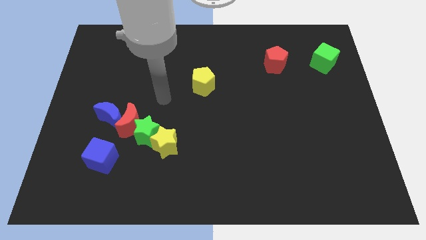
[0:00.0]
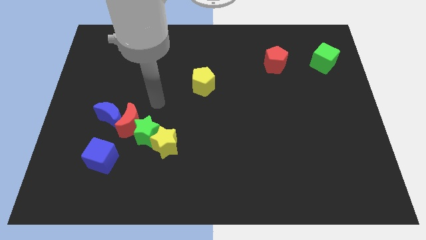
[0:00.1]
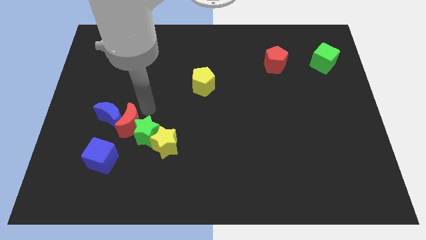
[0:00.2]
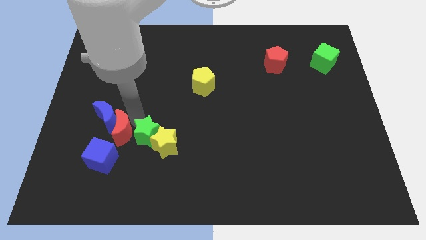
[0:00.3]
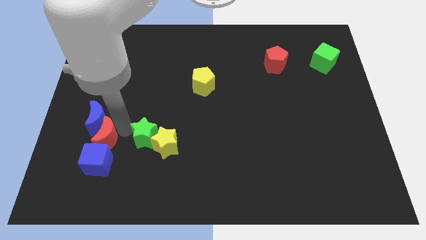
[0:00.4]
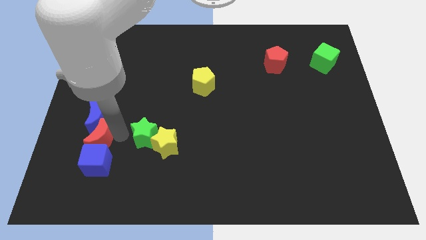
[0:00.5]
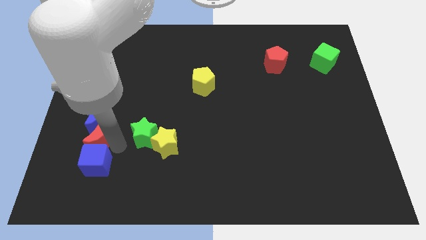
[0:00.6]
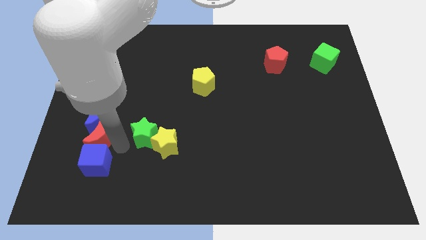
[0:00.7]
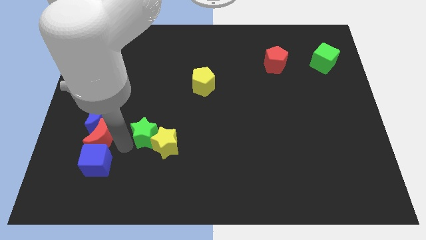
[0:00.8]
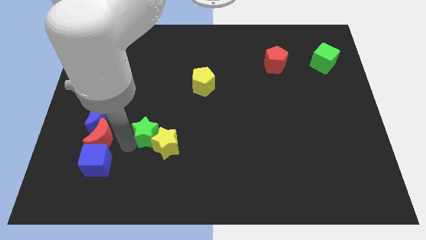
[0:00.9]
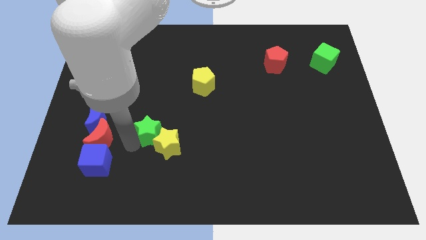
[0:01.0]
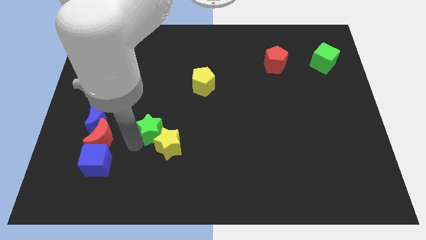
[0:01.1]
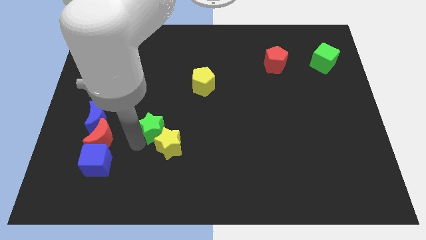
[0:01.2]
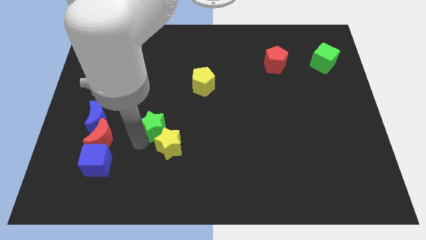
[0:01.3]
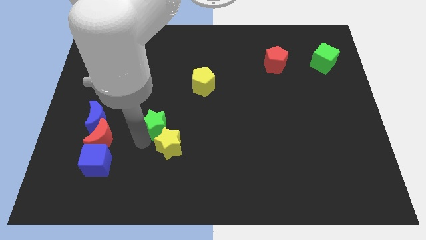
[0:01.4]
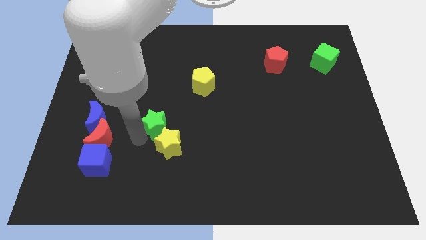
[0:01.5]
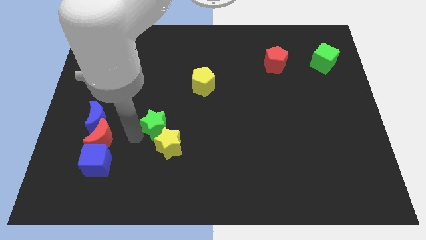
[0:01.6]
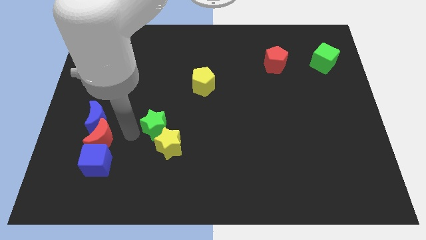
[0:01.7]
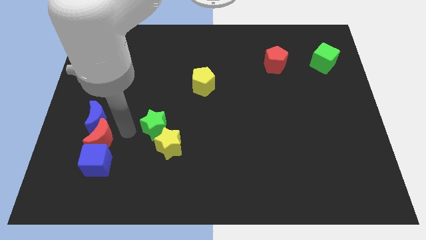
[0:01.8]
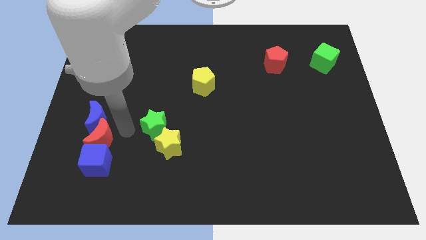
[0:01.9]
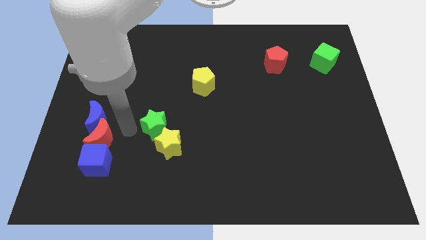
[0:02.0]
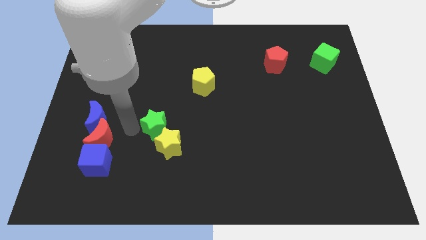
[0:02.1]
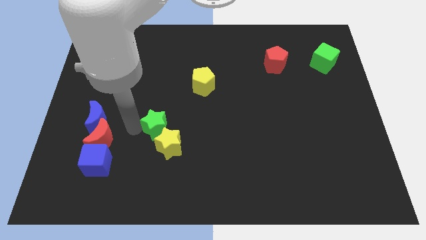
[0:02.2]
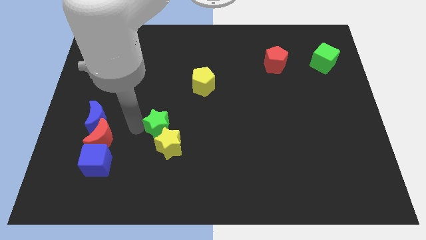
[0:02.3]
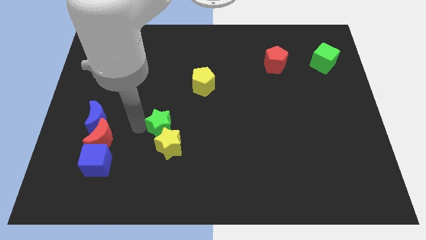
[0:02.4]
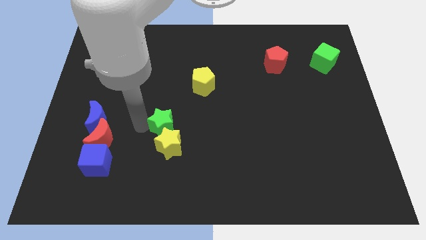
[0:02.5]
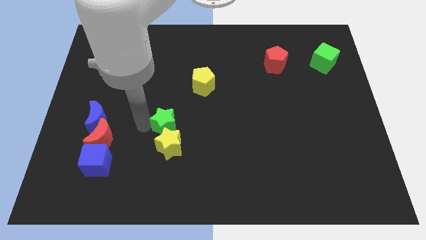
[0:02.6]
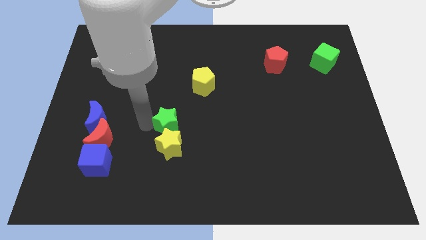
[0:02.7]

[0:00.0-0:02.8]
pull the green star apart from the group

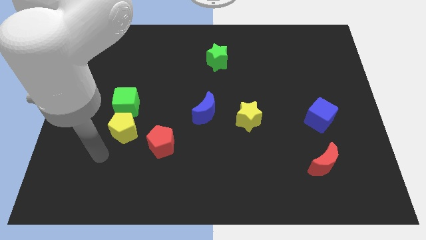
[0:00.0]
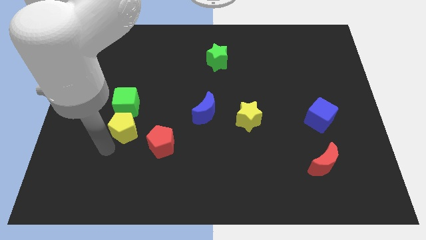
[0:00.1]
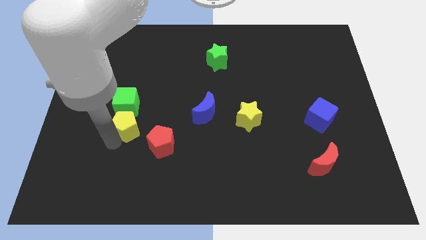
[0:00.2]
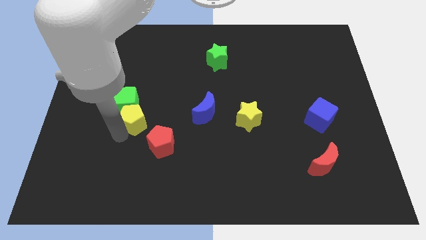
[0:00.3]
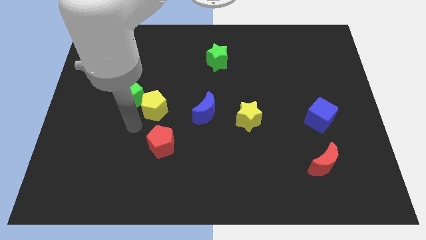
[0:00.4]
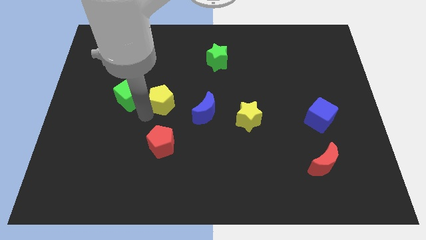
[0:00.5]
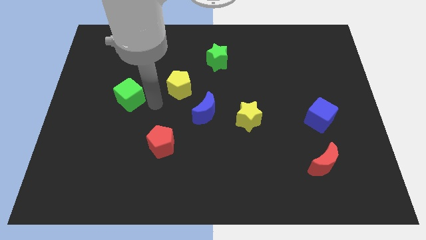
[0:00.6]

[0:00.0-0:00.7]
separate the green cube from the yellow pentagon

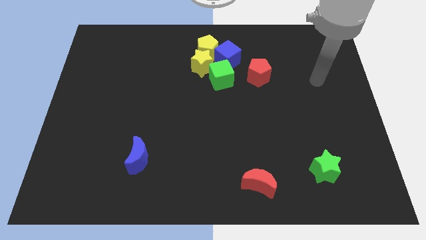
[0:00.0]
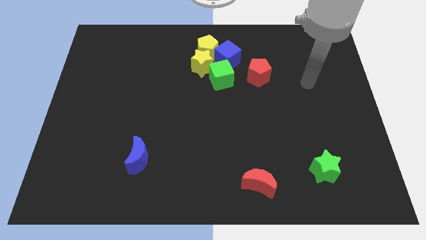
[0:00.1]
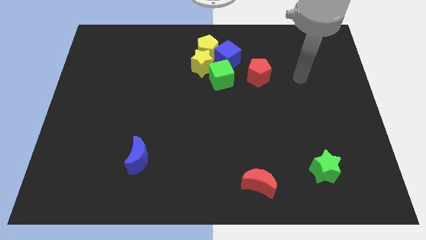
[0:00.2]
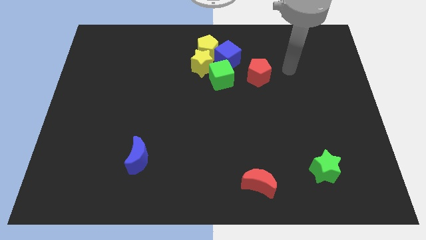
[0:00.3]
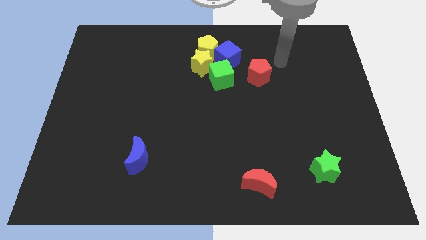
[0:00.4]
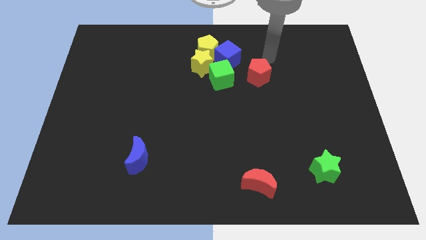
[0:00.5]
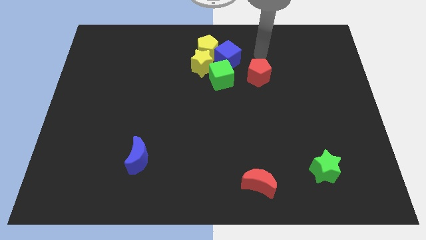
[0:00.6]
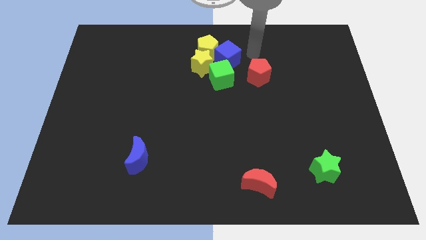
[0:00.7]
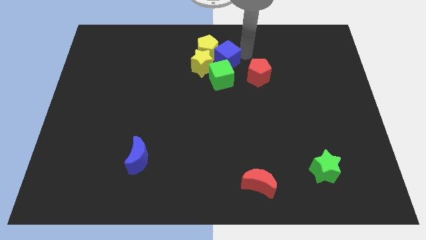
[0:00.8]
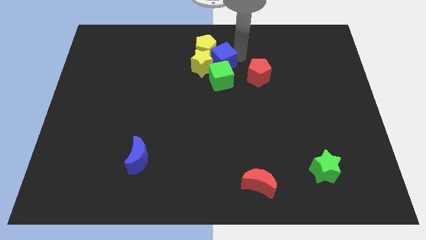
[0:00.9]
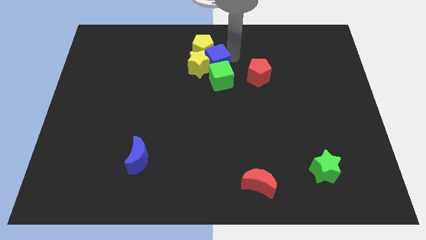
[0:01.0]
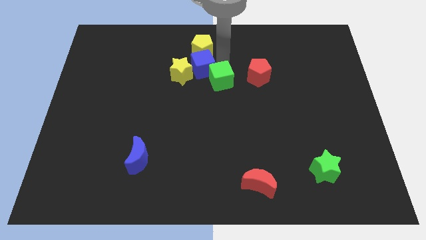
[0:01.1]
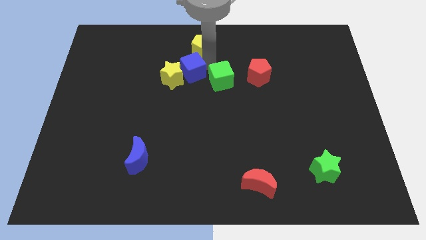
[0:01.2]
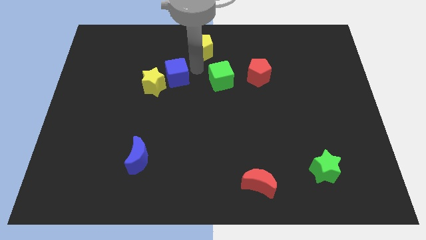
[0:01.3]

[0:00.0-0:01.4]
move the yellow star away from the clump

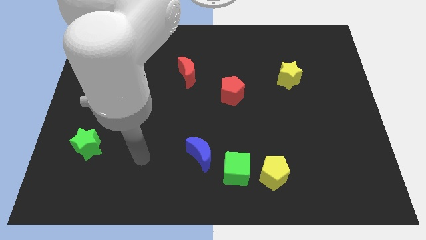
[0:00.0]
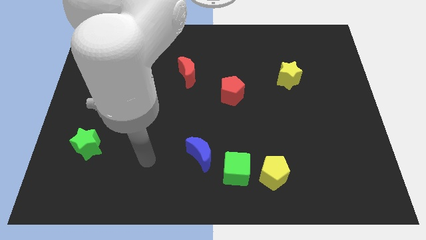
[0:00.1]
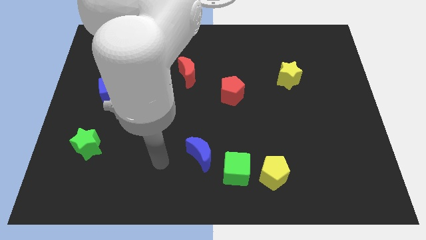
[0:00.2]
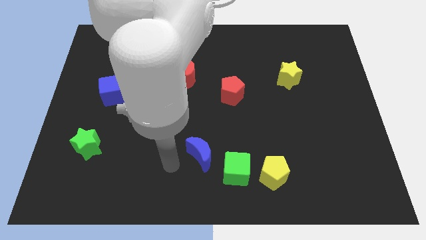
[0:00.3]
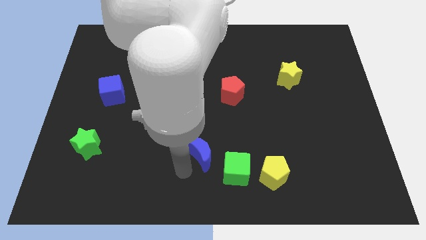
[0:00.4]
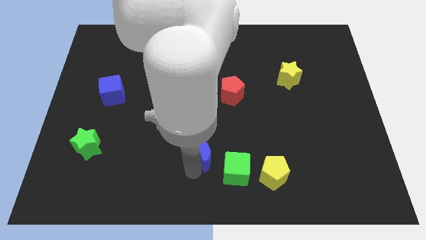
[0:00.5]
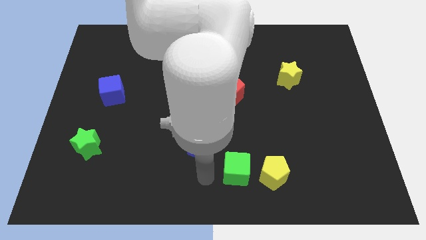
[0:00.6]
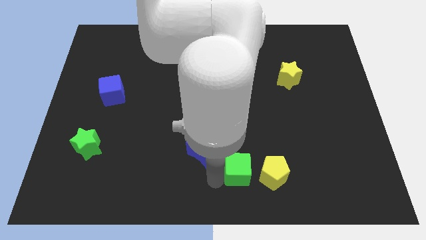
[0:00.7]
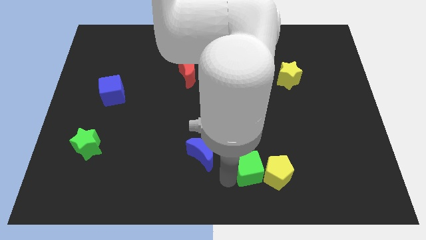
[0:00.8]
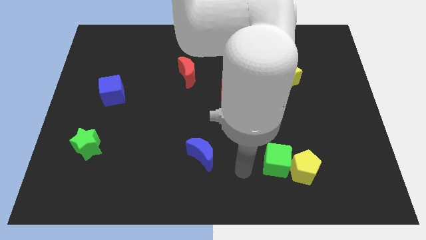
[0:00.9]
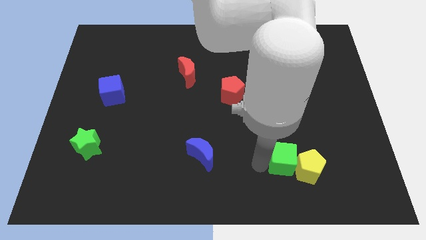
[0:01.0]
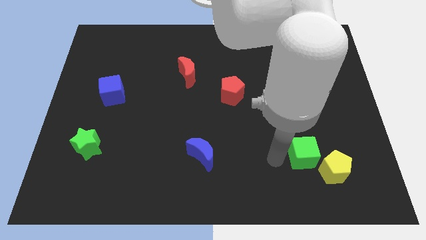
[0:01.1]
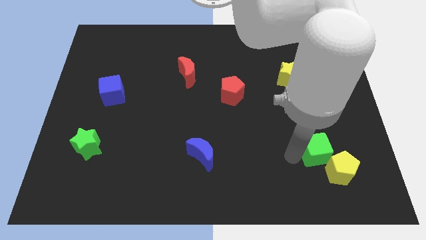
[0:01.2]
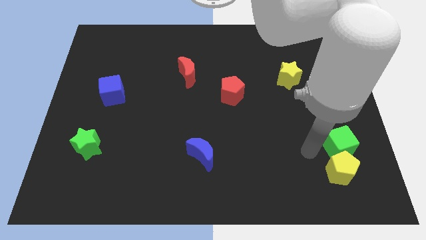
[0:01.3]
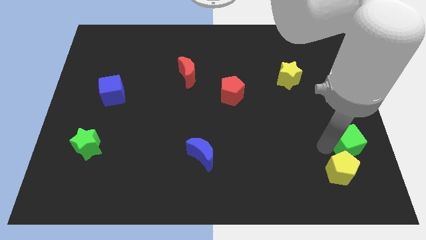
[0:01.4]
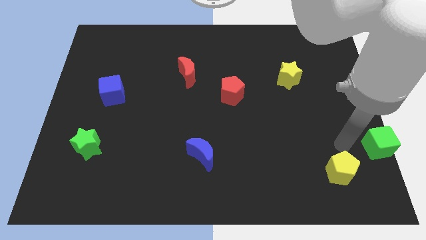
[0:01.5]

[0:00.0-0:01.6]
move the yellow pentagon away from the green cube

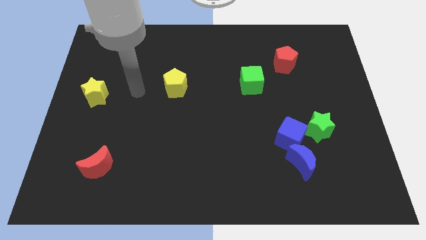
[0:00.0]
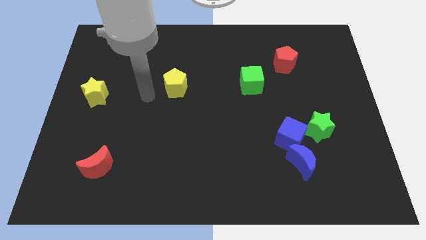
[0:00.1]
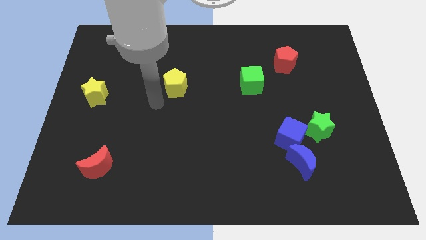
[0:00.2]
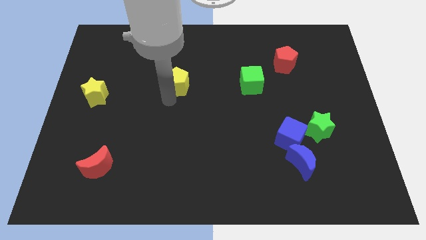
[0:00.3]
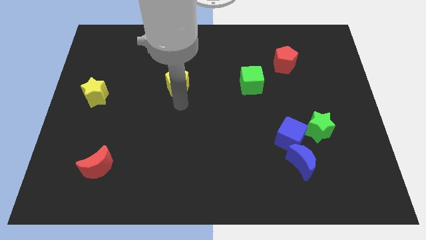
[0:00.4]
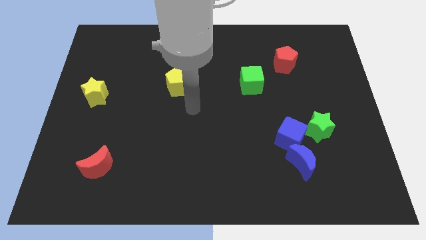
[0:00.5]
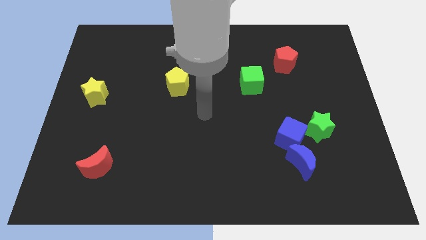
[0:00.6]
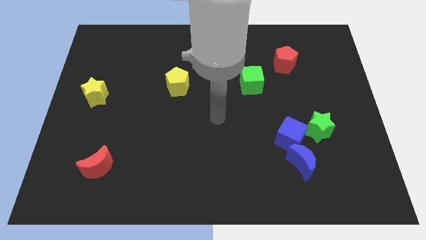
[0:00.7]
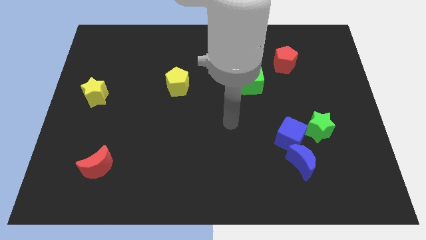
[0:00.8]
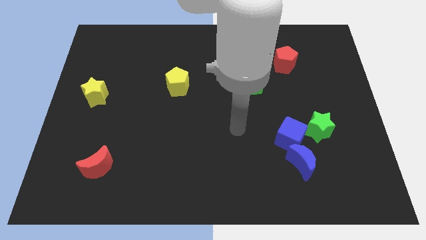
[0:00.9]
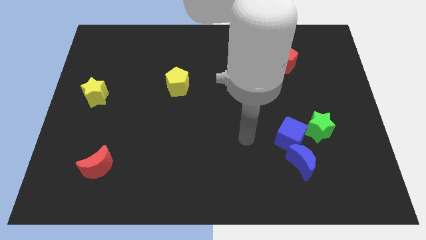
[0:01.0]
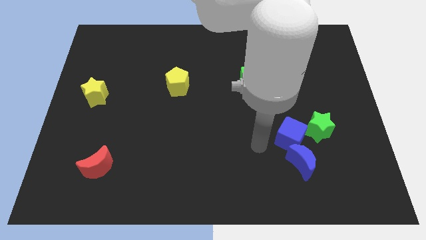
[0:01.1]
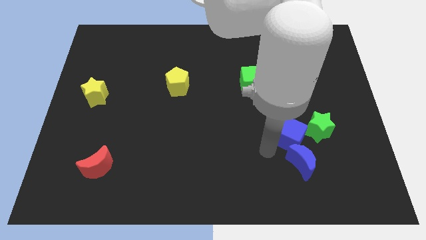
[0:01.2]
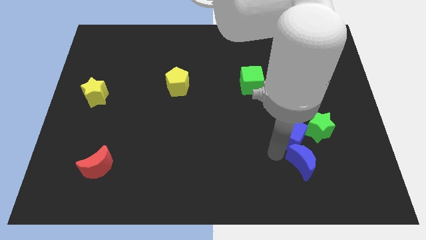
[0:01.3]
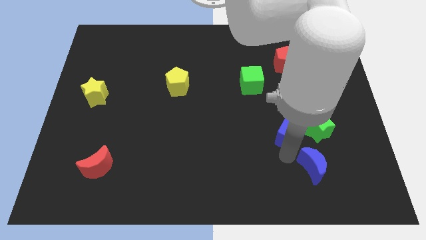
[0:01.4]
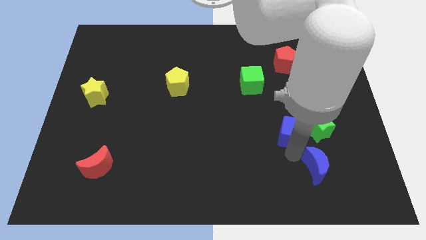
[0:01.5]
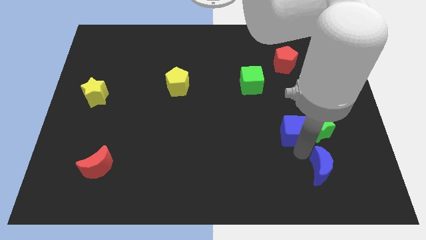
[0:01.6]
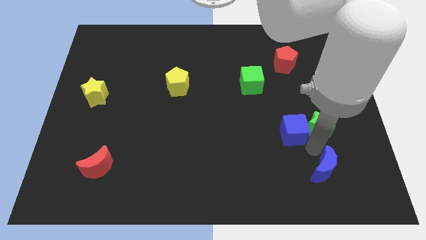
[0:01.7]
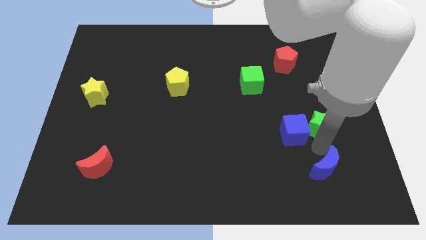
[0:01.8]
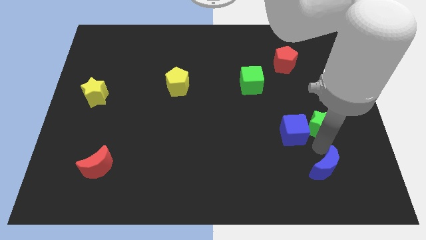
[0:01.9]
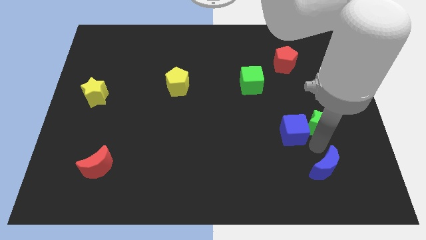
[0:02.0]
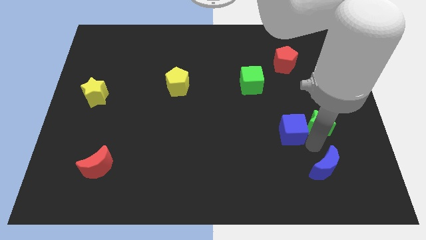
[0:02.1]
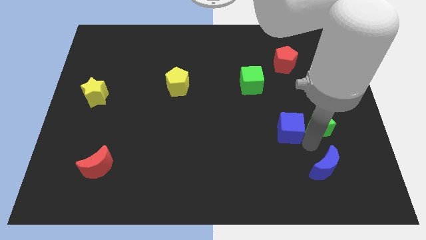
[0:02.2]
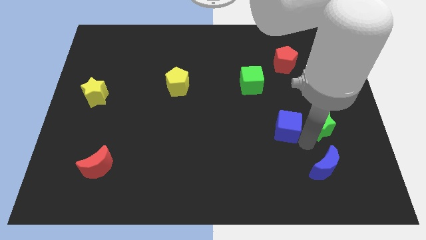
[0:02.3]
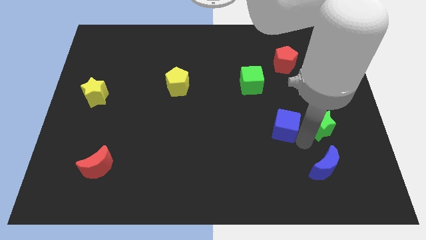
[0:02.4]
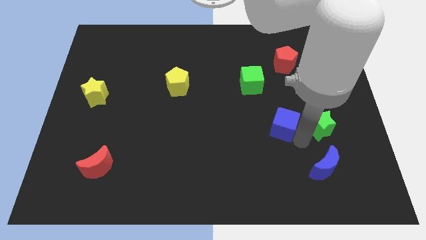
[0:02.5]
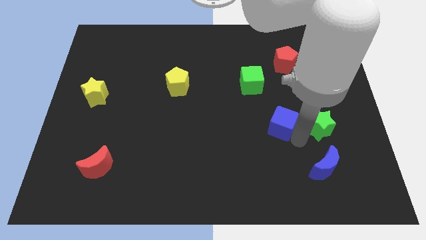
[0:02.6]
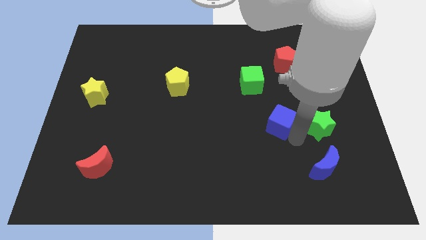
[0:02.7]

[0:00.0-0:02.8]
separate the blue cube from the blue moon and green star
